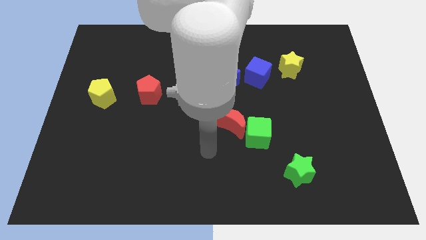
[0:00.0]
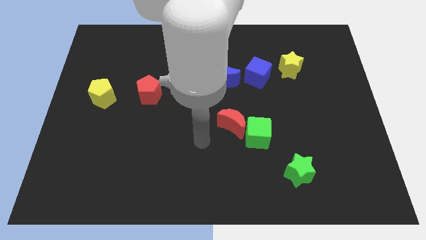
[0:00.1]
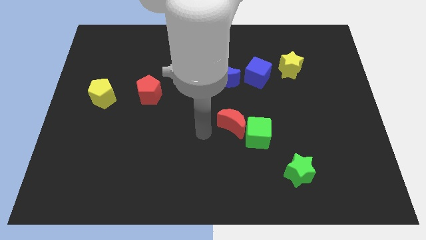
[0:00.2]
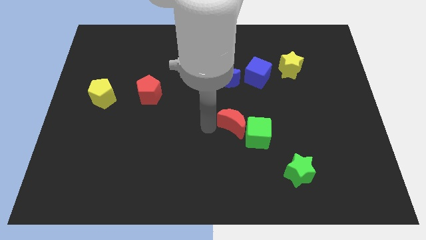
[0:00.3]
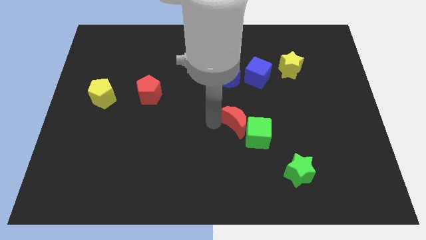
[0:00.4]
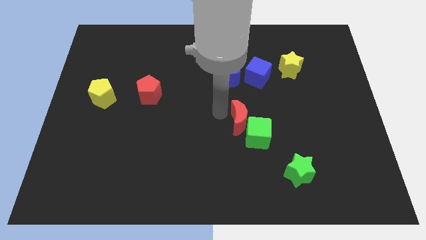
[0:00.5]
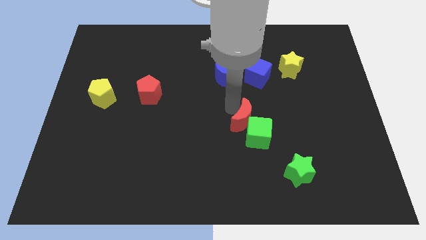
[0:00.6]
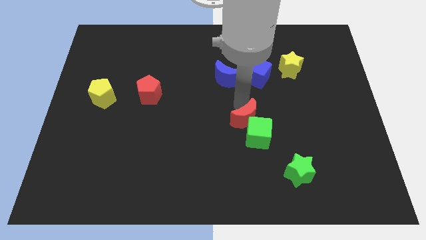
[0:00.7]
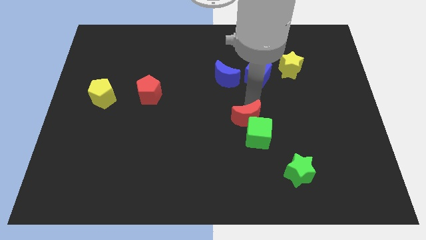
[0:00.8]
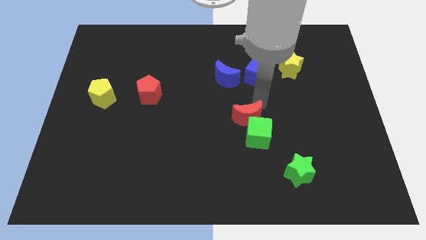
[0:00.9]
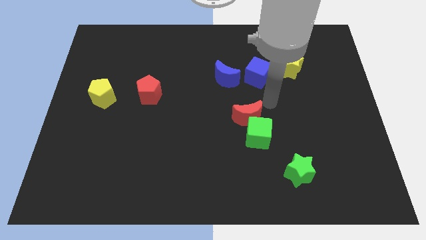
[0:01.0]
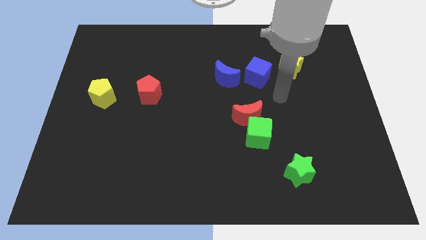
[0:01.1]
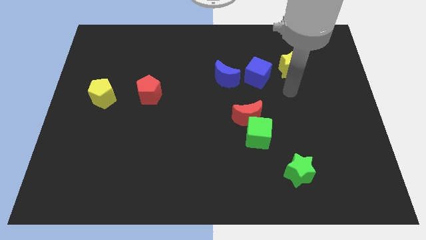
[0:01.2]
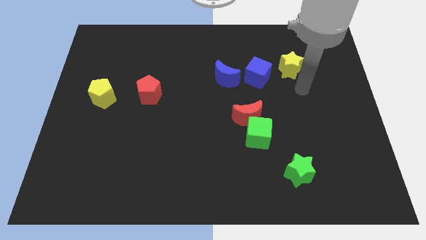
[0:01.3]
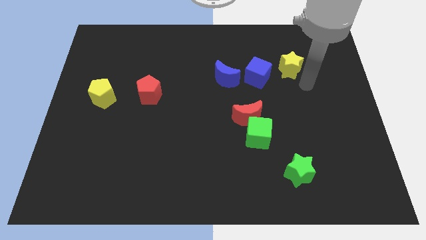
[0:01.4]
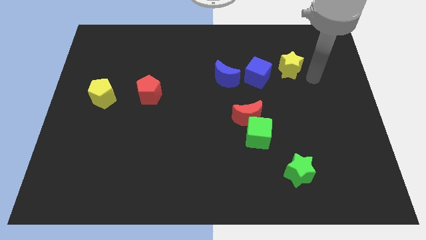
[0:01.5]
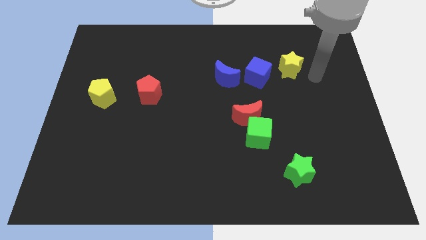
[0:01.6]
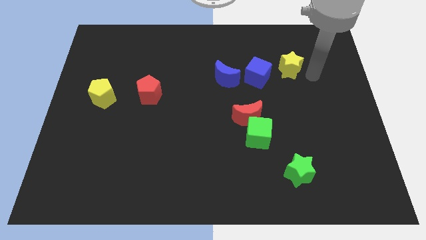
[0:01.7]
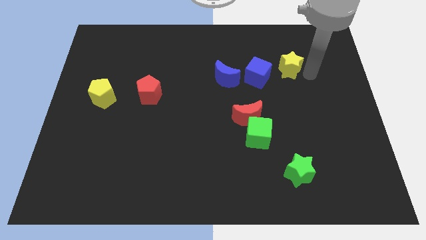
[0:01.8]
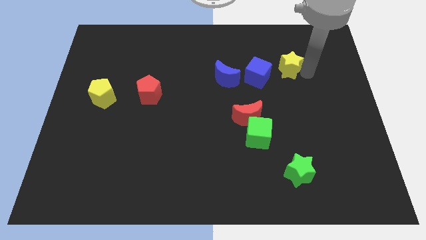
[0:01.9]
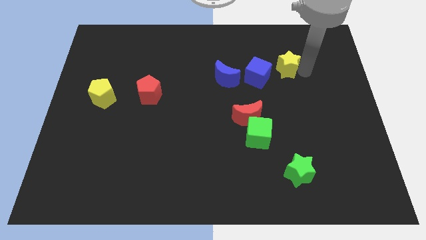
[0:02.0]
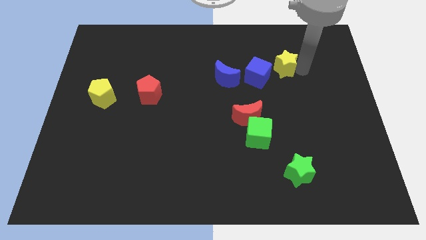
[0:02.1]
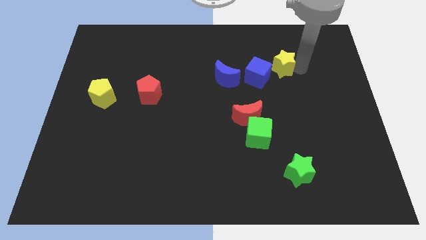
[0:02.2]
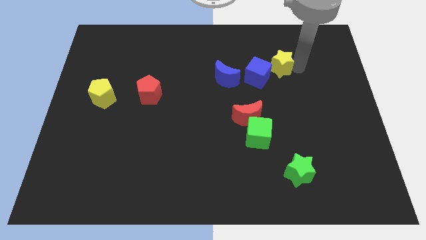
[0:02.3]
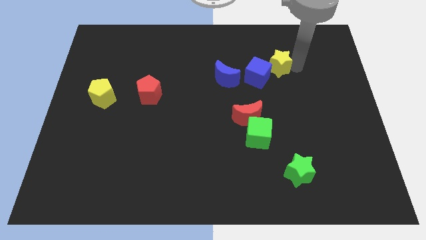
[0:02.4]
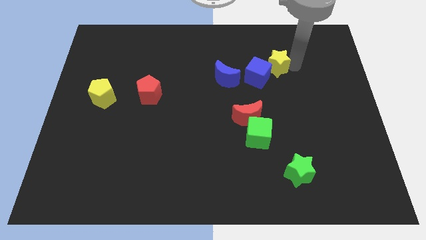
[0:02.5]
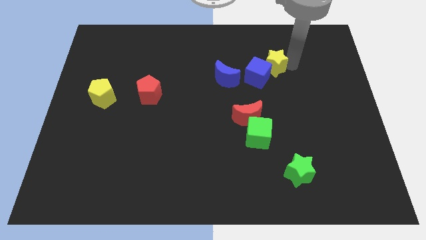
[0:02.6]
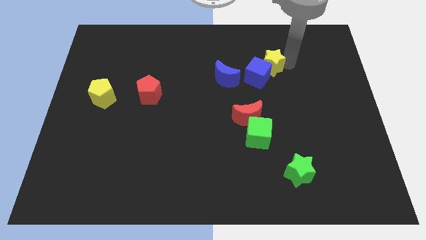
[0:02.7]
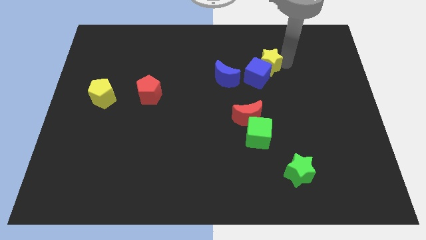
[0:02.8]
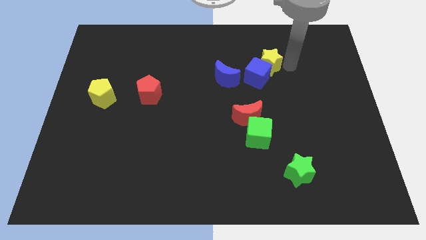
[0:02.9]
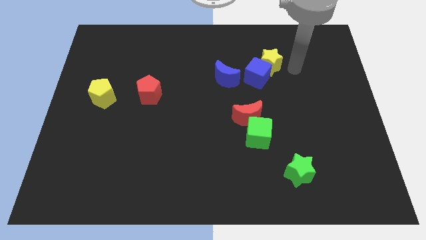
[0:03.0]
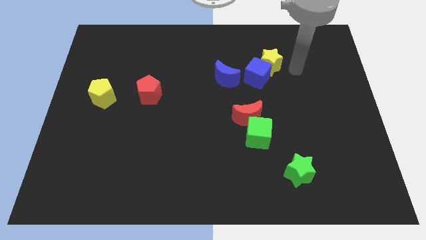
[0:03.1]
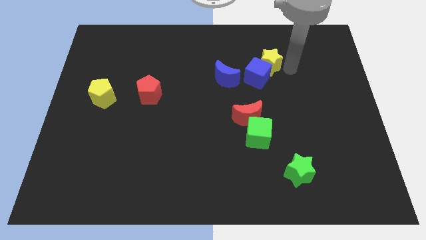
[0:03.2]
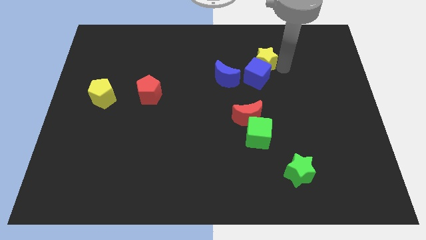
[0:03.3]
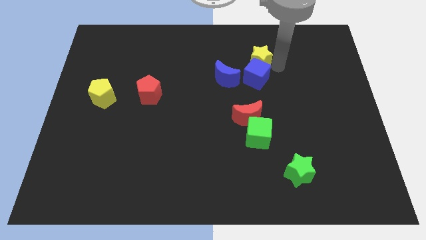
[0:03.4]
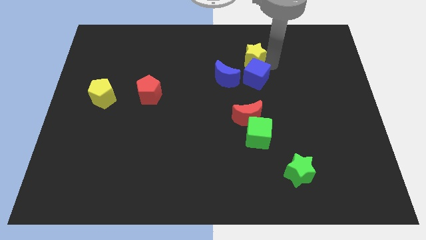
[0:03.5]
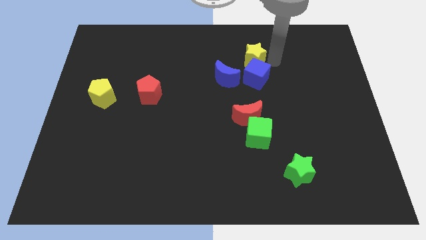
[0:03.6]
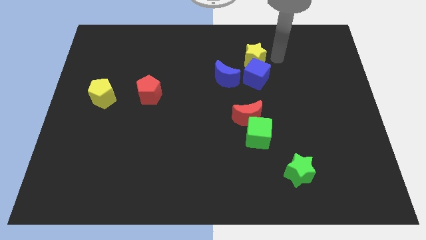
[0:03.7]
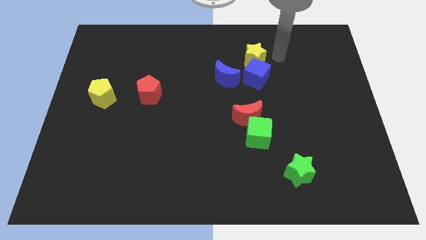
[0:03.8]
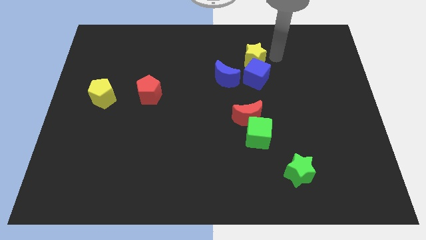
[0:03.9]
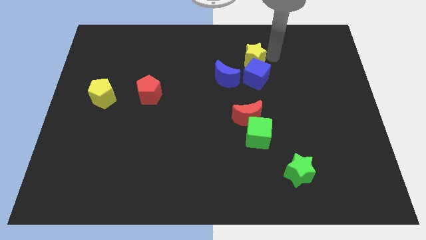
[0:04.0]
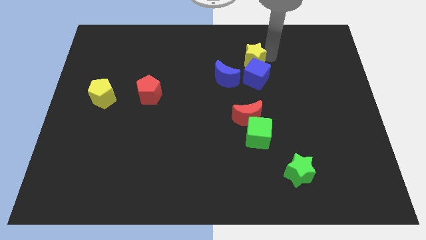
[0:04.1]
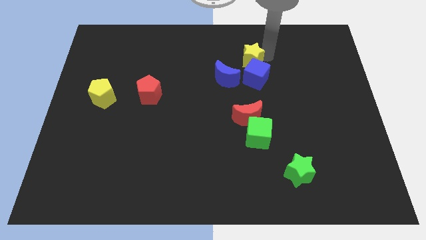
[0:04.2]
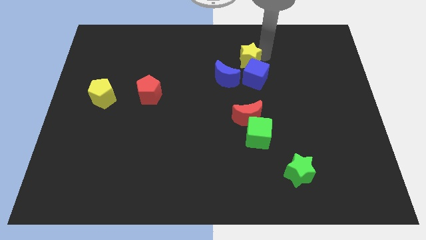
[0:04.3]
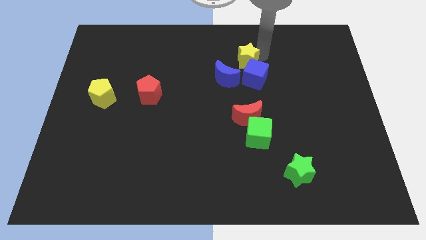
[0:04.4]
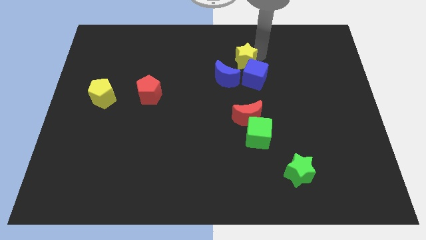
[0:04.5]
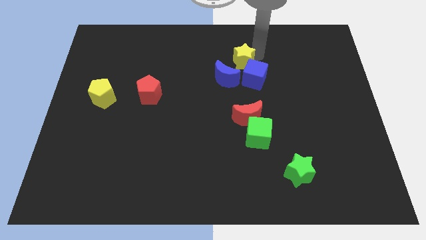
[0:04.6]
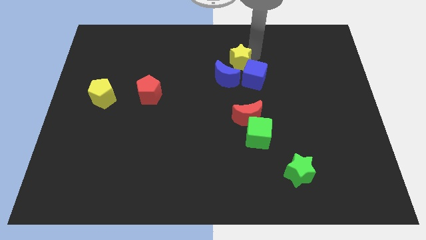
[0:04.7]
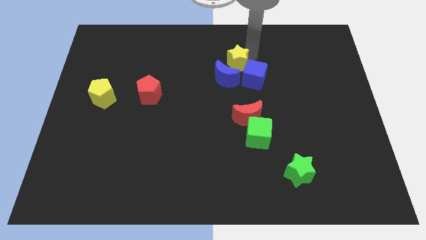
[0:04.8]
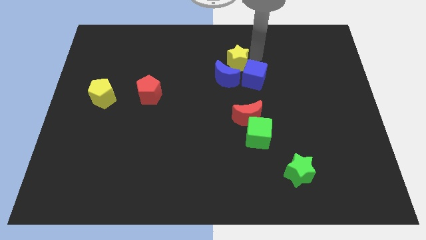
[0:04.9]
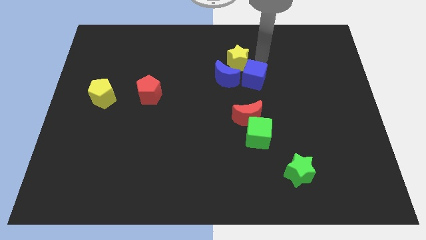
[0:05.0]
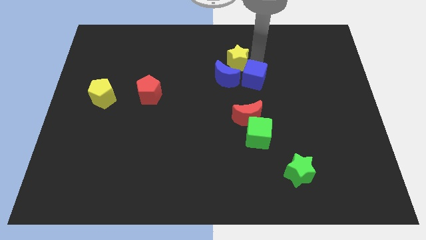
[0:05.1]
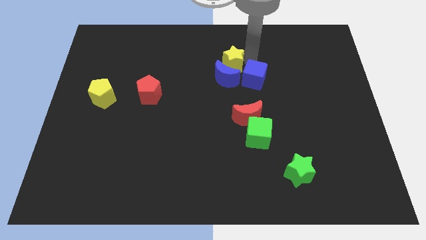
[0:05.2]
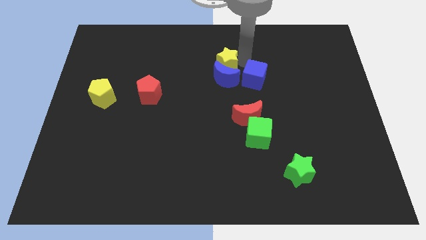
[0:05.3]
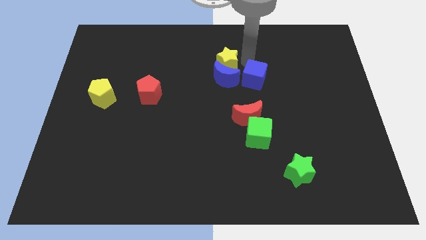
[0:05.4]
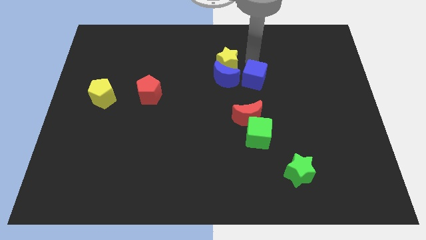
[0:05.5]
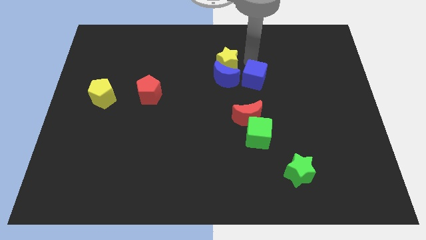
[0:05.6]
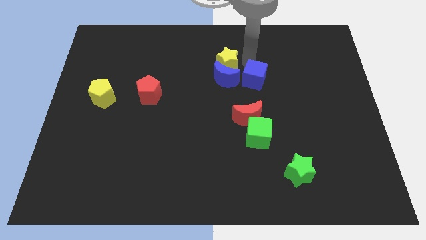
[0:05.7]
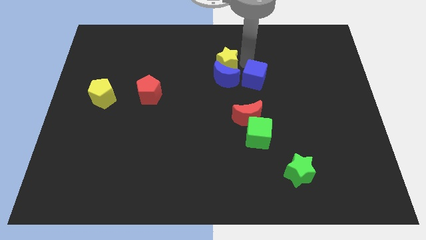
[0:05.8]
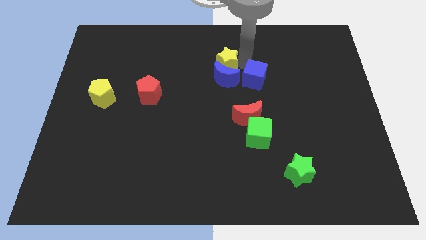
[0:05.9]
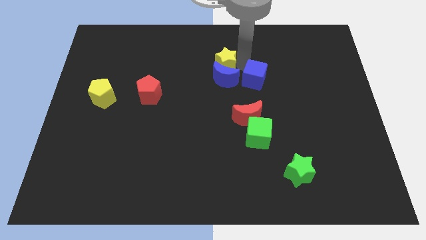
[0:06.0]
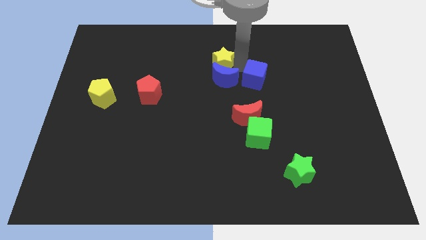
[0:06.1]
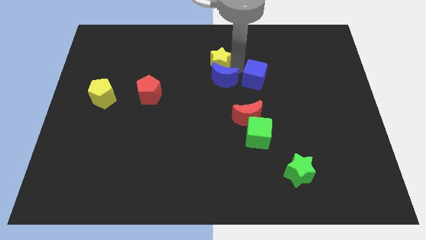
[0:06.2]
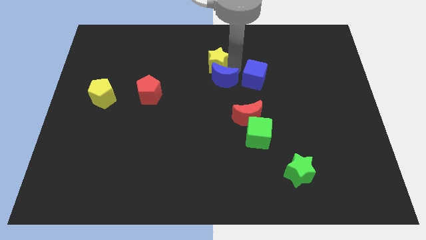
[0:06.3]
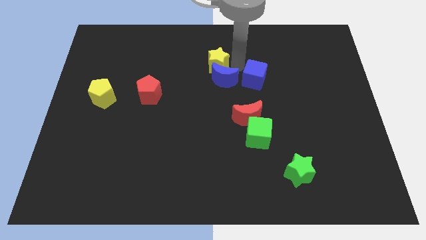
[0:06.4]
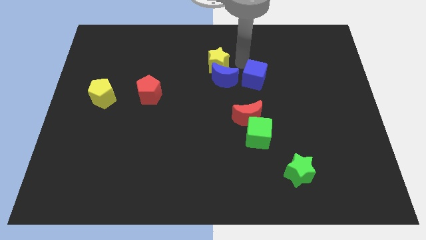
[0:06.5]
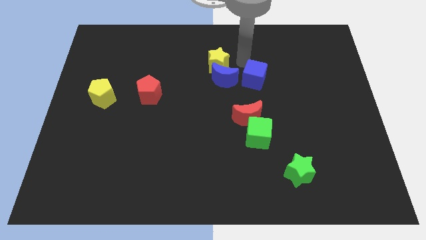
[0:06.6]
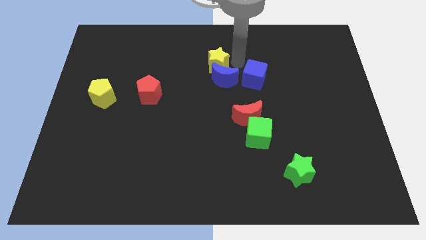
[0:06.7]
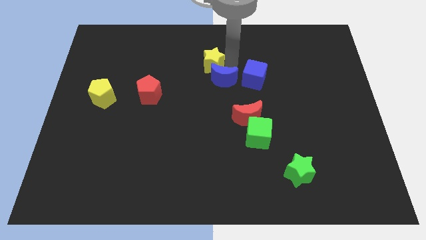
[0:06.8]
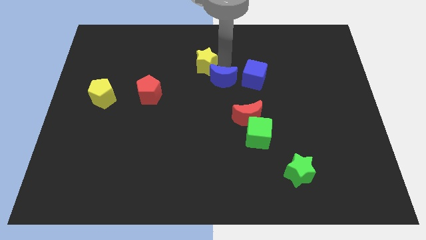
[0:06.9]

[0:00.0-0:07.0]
slide the yellow star to the left

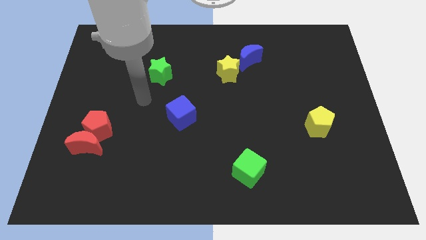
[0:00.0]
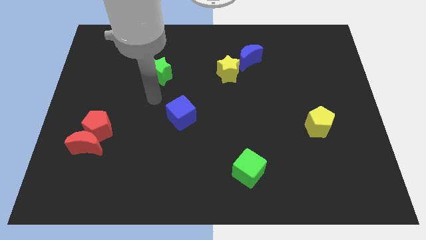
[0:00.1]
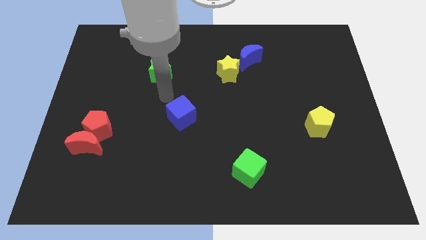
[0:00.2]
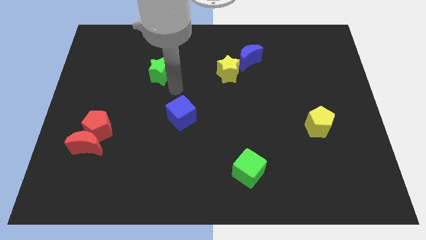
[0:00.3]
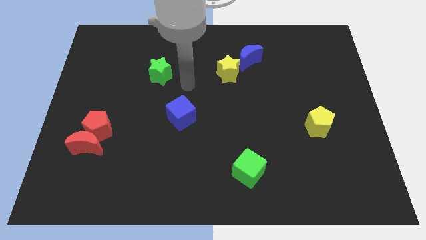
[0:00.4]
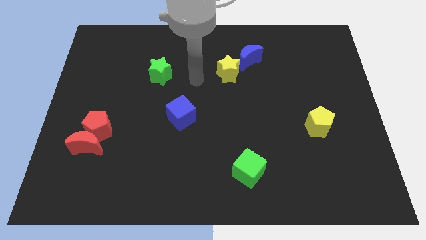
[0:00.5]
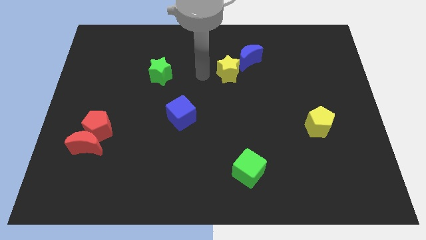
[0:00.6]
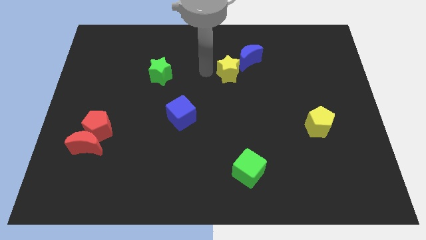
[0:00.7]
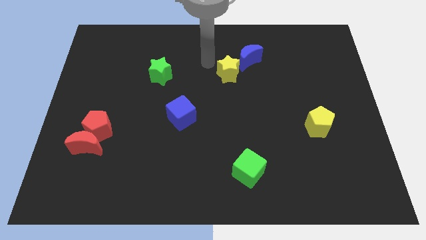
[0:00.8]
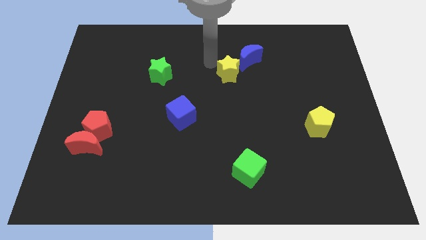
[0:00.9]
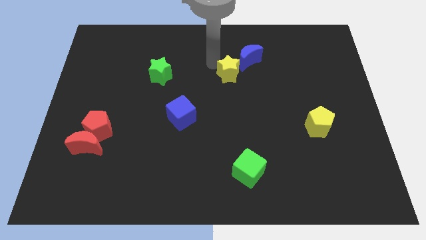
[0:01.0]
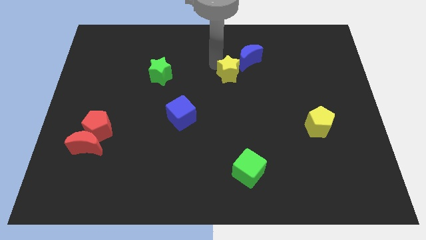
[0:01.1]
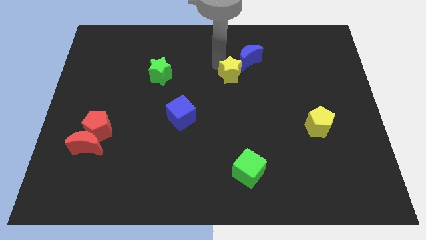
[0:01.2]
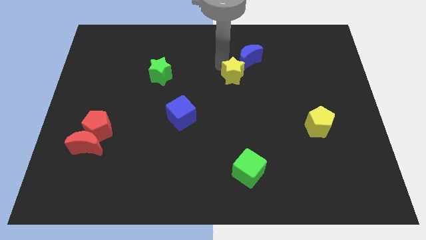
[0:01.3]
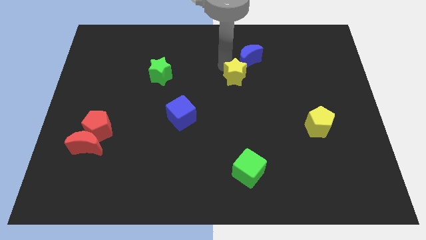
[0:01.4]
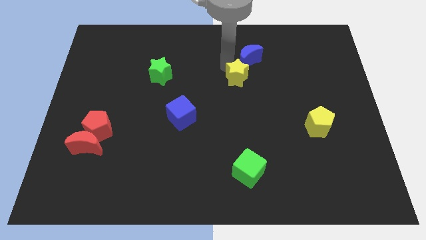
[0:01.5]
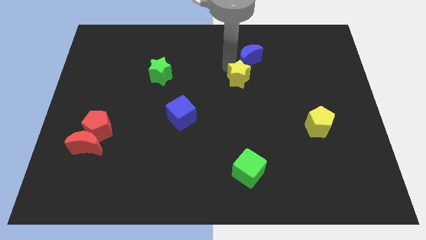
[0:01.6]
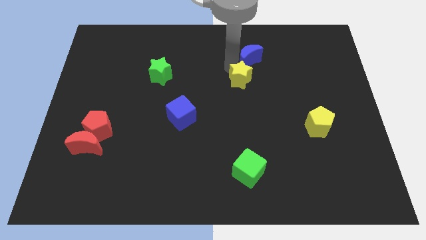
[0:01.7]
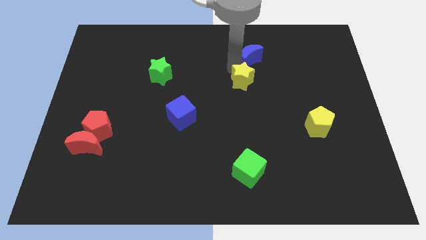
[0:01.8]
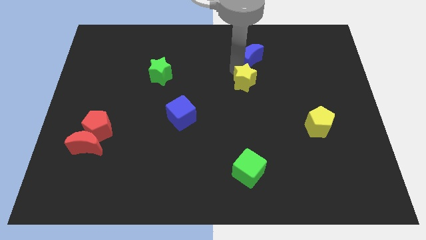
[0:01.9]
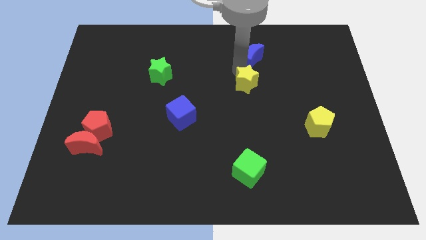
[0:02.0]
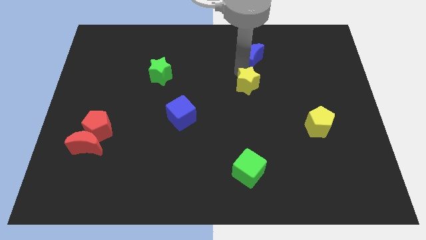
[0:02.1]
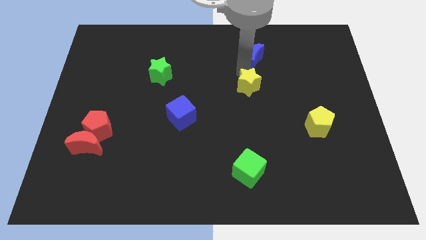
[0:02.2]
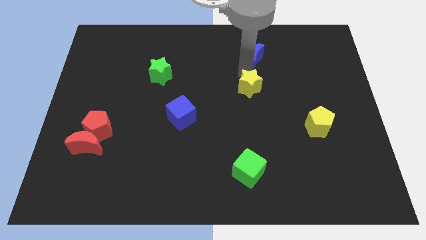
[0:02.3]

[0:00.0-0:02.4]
slightly push the yellow star diagonally downwards and to the right
